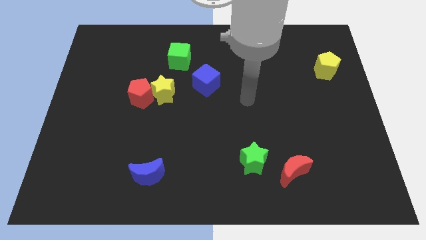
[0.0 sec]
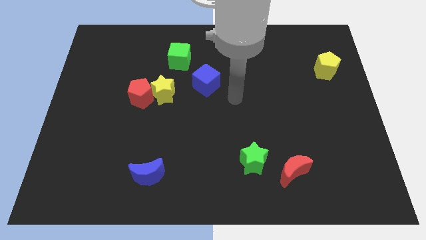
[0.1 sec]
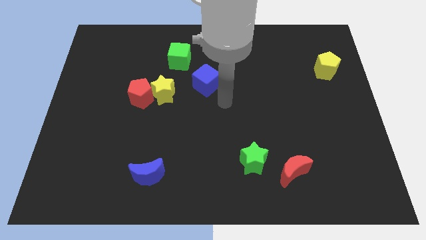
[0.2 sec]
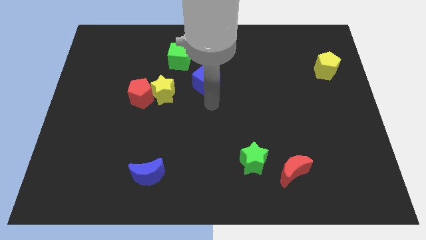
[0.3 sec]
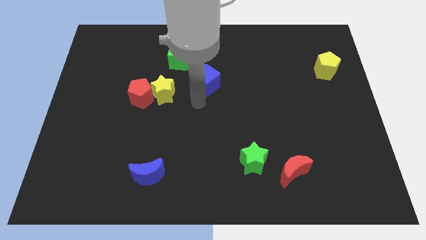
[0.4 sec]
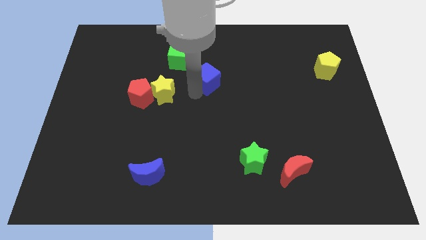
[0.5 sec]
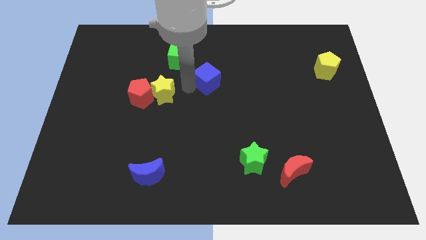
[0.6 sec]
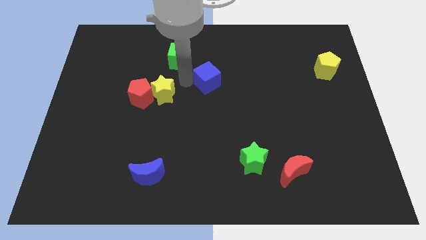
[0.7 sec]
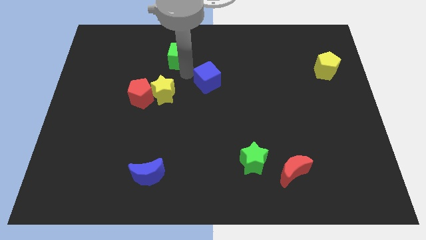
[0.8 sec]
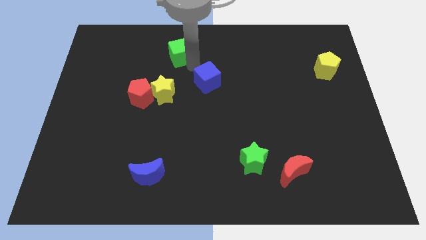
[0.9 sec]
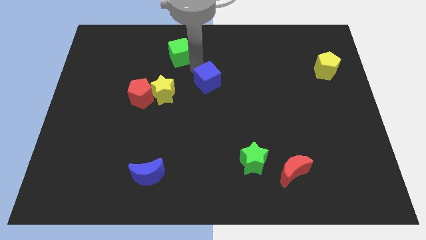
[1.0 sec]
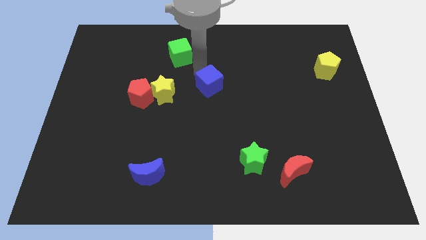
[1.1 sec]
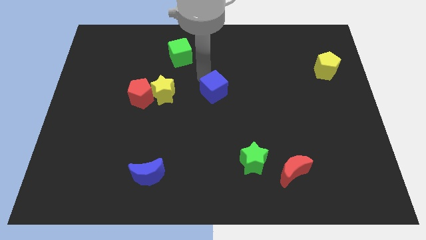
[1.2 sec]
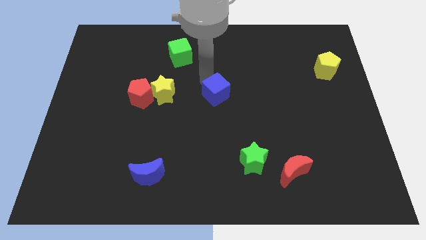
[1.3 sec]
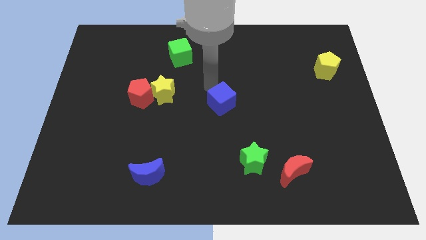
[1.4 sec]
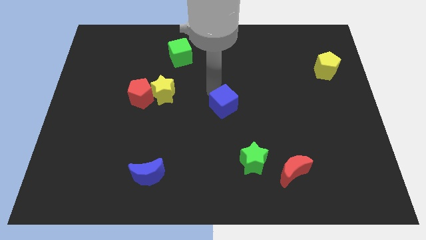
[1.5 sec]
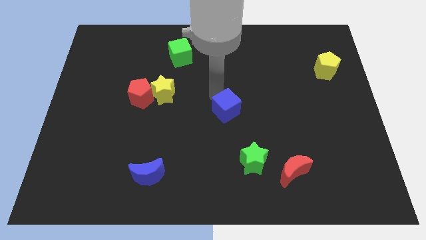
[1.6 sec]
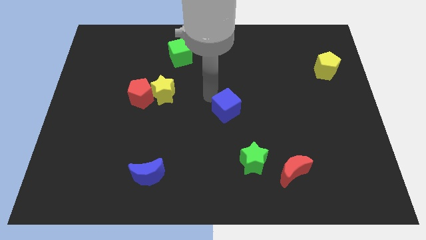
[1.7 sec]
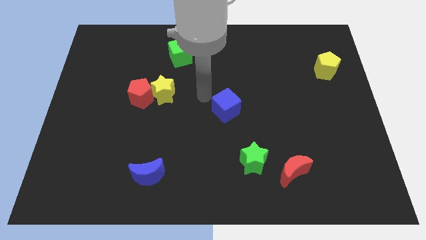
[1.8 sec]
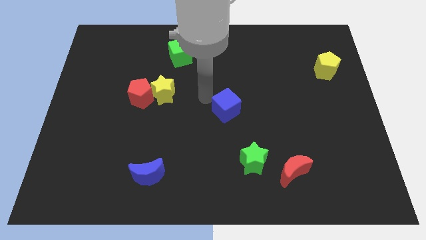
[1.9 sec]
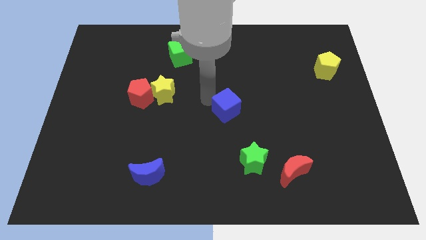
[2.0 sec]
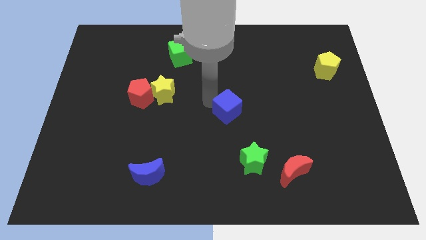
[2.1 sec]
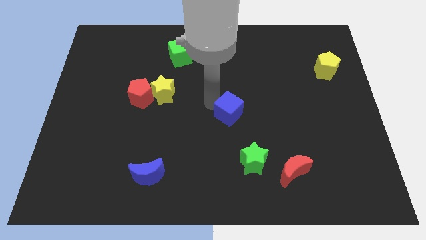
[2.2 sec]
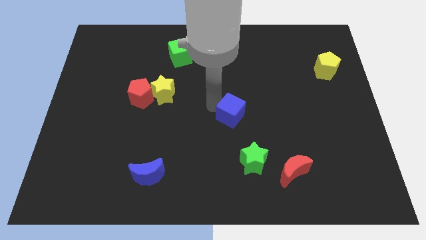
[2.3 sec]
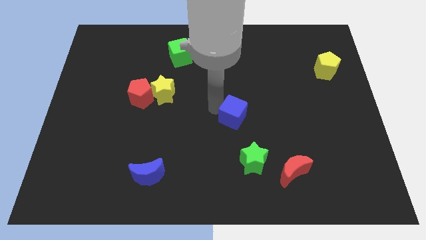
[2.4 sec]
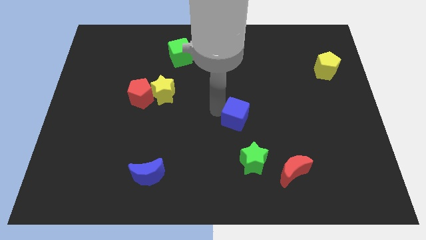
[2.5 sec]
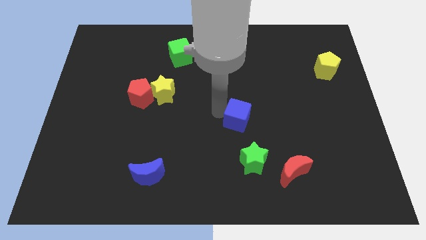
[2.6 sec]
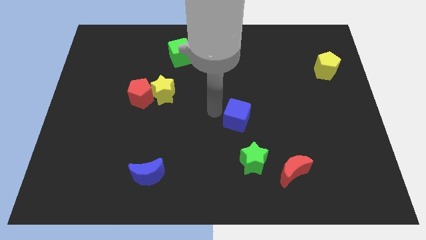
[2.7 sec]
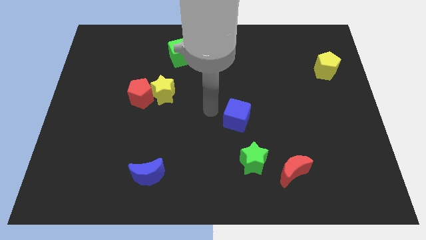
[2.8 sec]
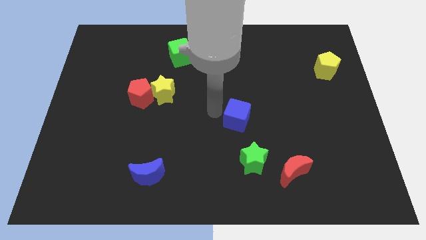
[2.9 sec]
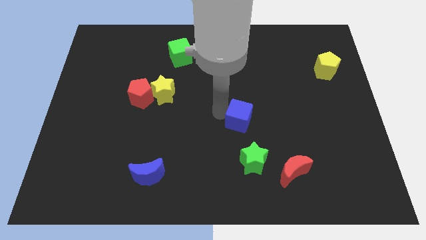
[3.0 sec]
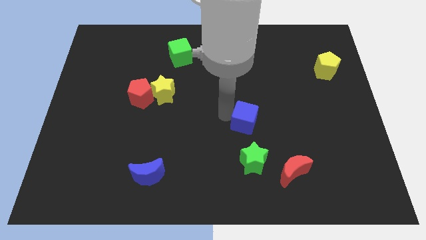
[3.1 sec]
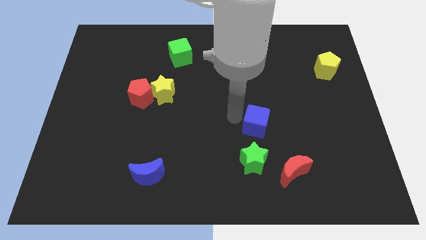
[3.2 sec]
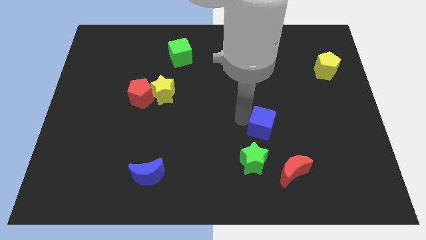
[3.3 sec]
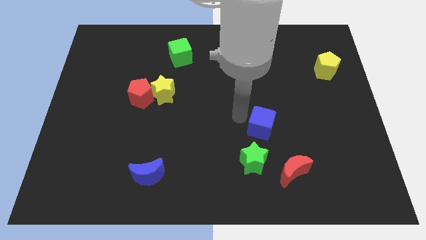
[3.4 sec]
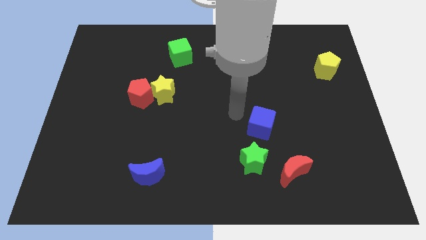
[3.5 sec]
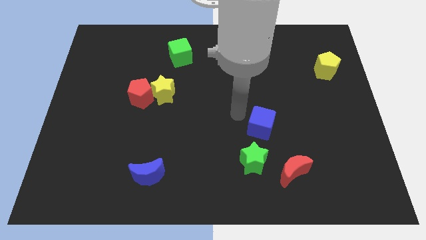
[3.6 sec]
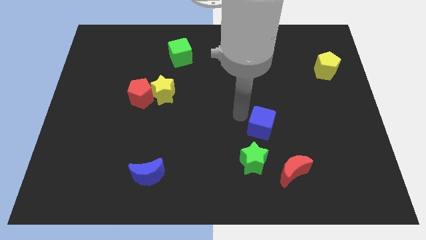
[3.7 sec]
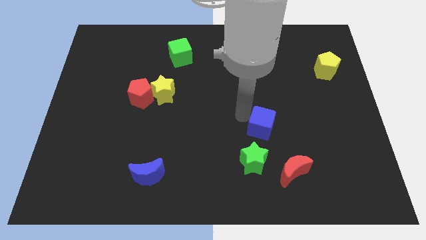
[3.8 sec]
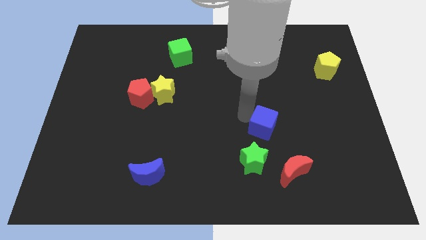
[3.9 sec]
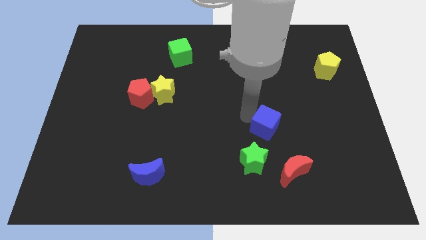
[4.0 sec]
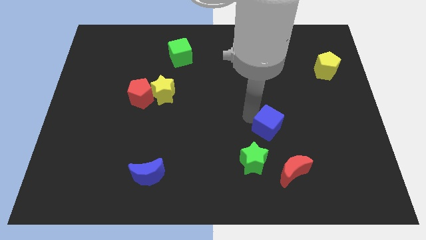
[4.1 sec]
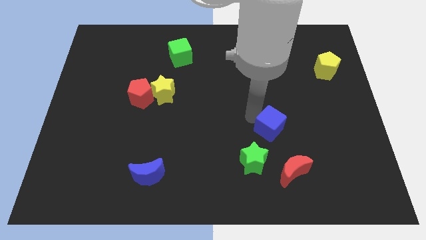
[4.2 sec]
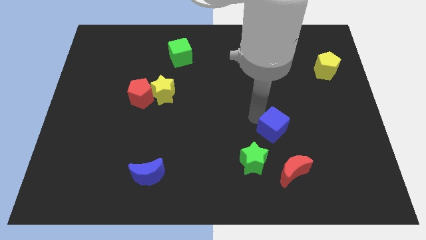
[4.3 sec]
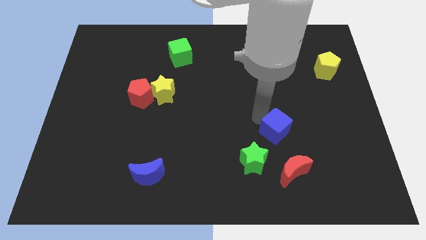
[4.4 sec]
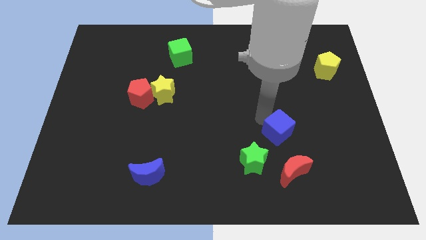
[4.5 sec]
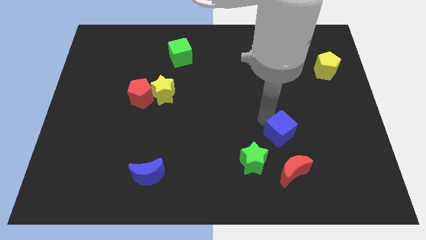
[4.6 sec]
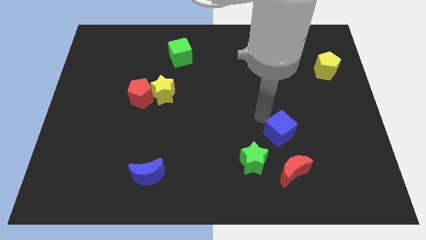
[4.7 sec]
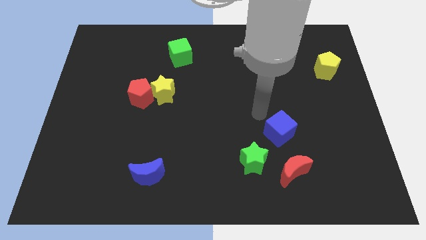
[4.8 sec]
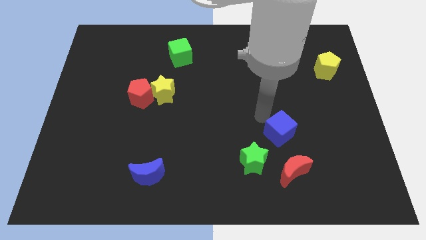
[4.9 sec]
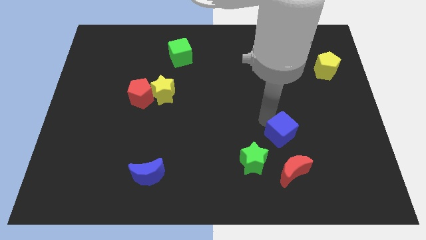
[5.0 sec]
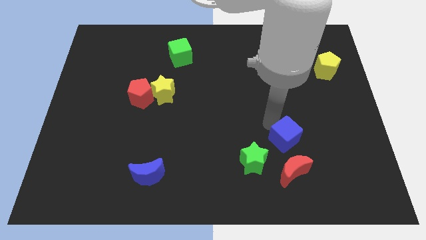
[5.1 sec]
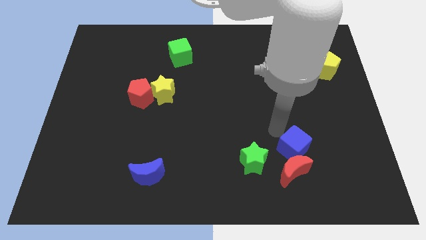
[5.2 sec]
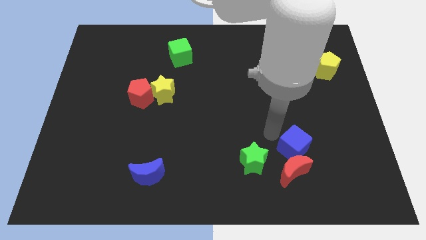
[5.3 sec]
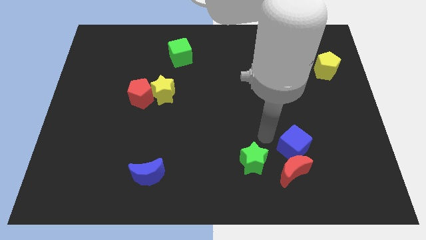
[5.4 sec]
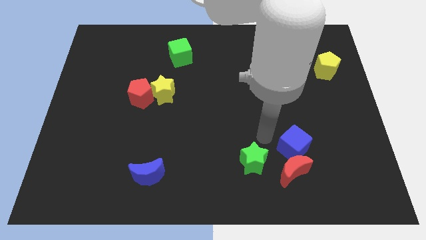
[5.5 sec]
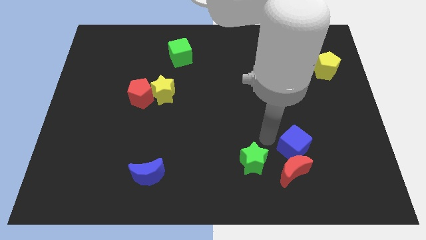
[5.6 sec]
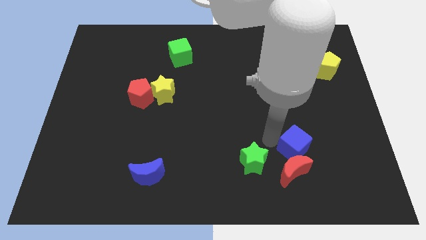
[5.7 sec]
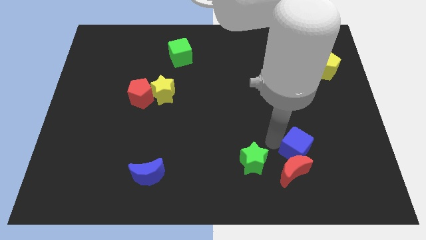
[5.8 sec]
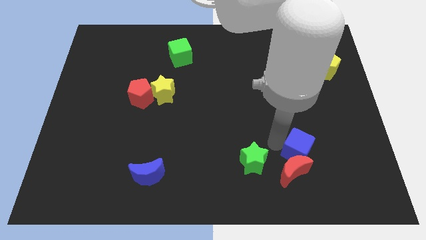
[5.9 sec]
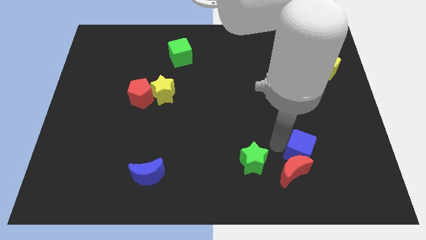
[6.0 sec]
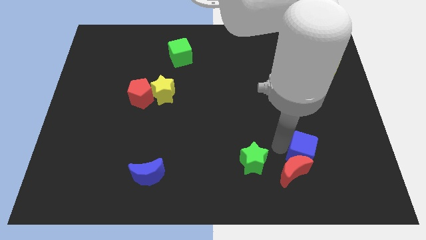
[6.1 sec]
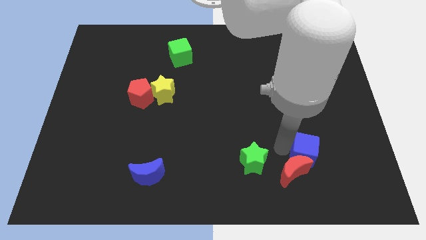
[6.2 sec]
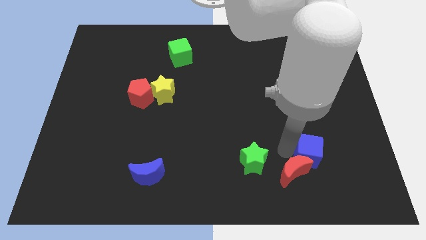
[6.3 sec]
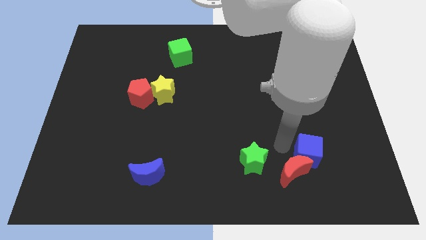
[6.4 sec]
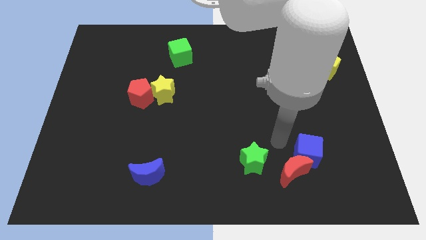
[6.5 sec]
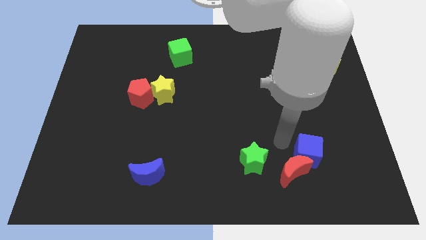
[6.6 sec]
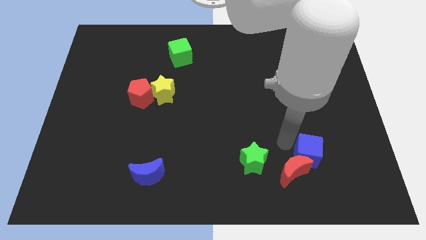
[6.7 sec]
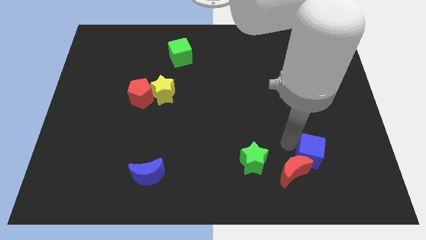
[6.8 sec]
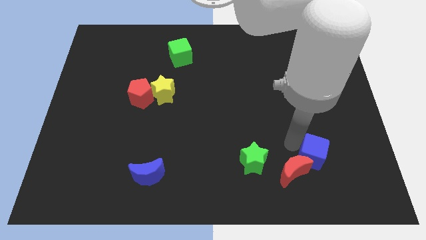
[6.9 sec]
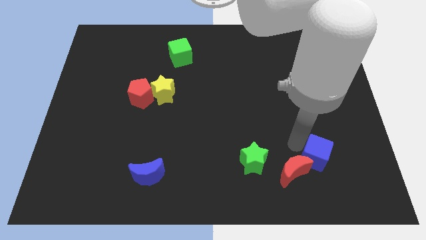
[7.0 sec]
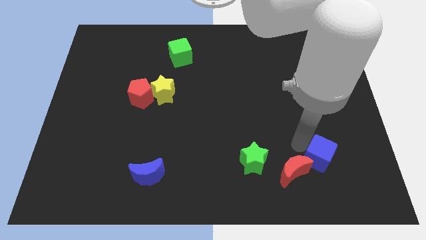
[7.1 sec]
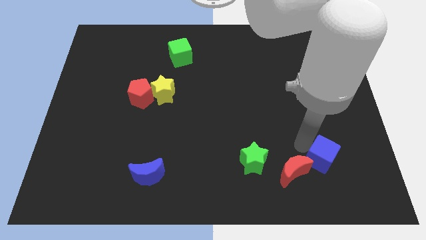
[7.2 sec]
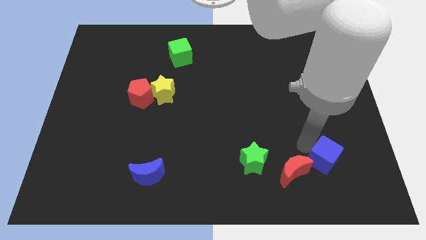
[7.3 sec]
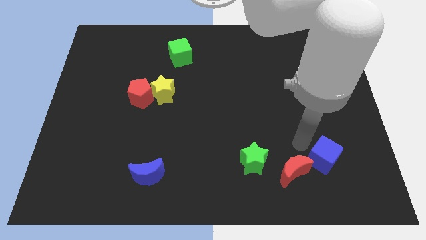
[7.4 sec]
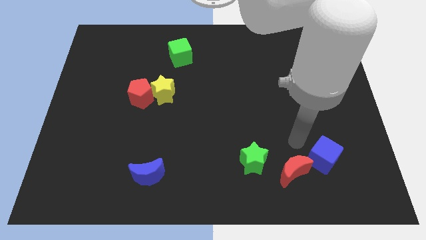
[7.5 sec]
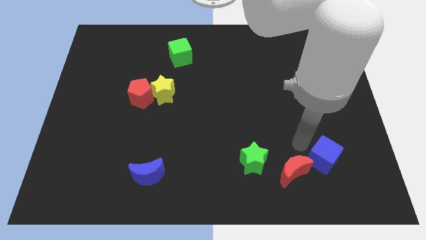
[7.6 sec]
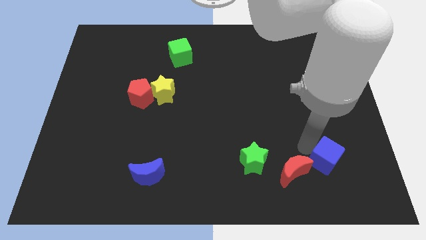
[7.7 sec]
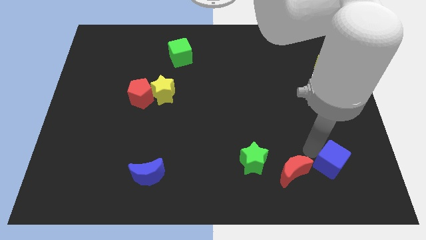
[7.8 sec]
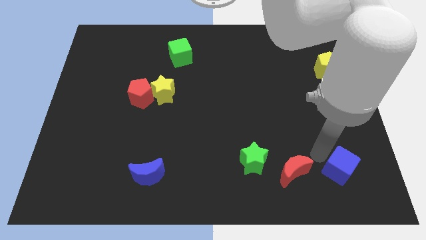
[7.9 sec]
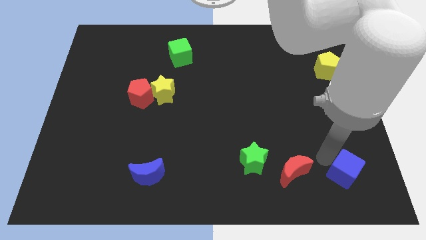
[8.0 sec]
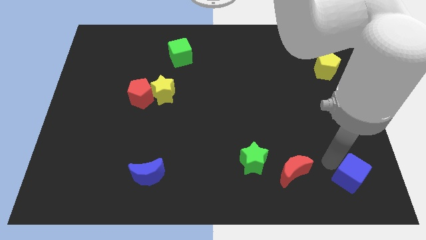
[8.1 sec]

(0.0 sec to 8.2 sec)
push the blue cube to the bottom right corner
